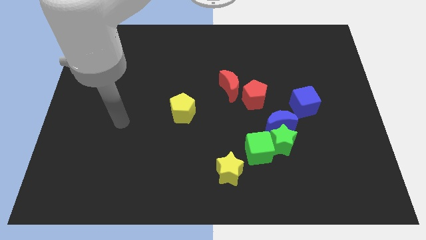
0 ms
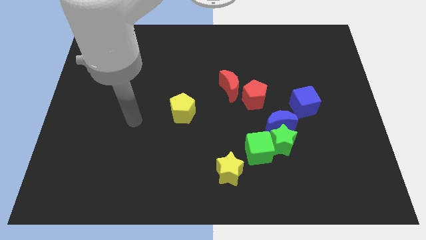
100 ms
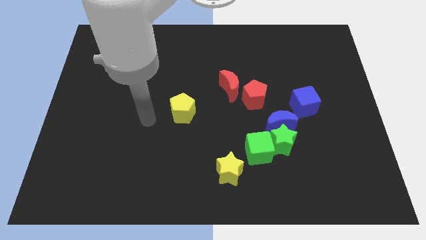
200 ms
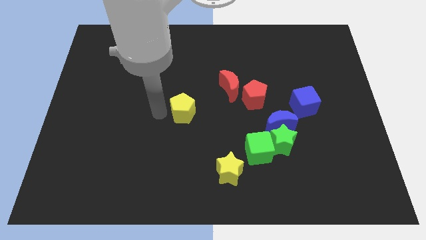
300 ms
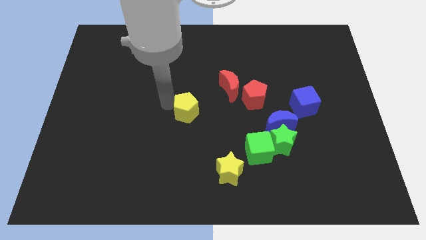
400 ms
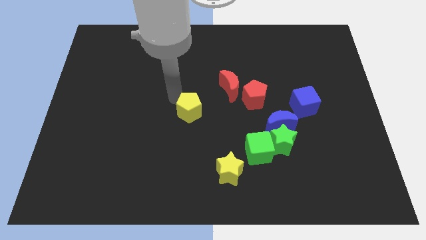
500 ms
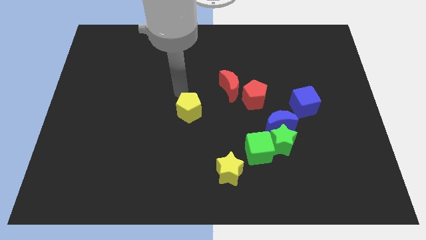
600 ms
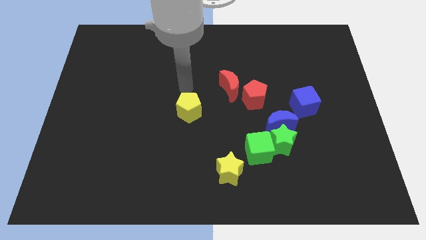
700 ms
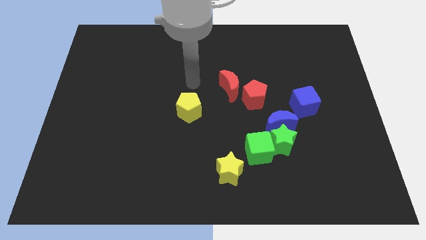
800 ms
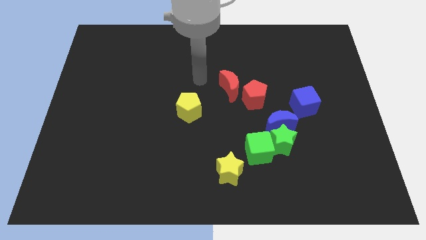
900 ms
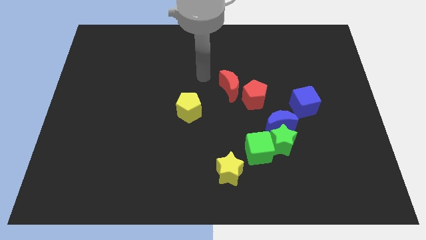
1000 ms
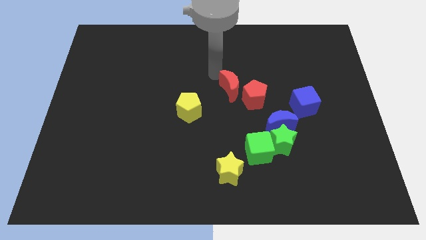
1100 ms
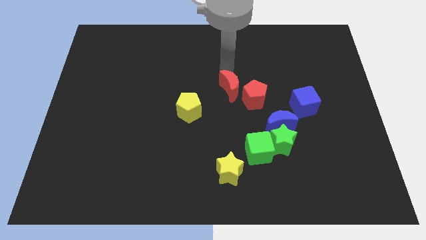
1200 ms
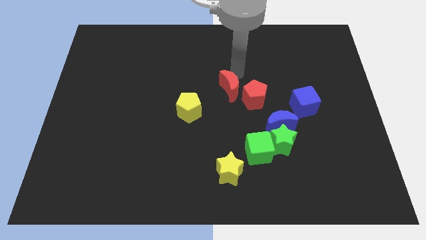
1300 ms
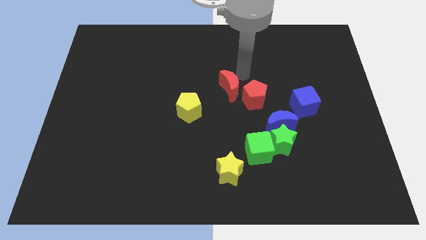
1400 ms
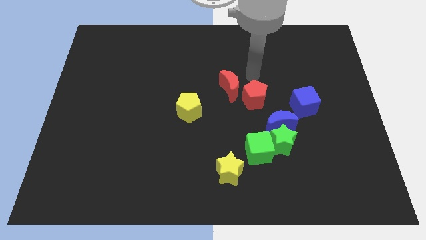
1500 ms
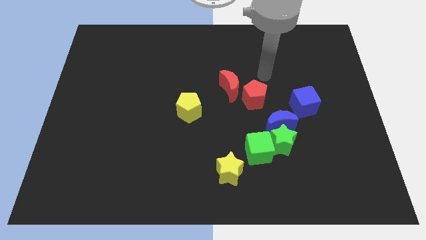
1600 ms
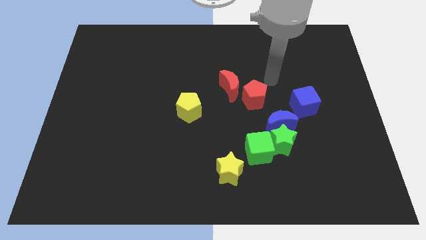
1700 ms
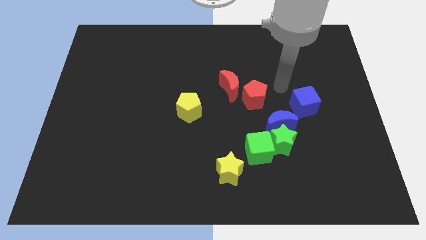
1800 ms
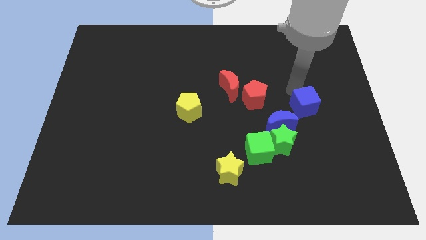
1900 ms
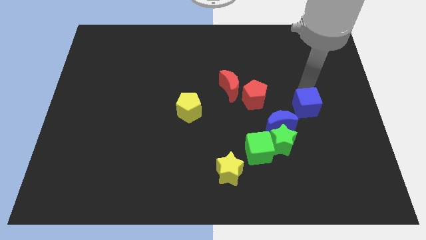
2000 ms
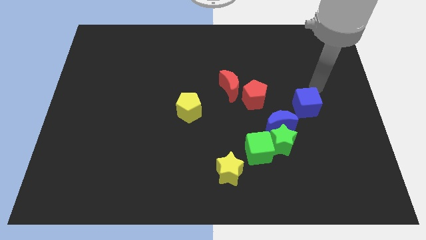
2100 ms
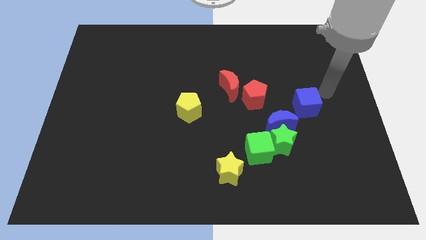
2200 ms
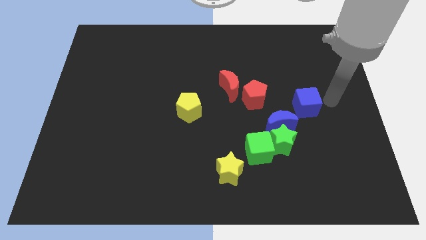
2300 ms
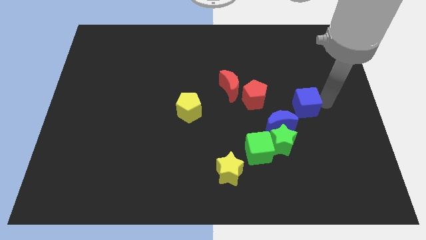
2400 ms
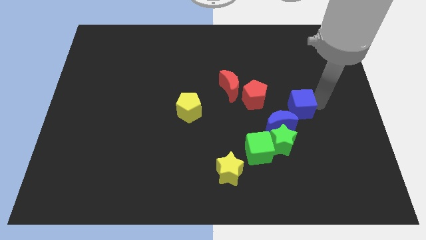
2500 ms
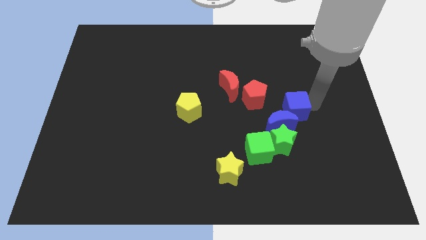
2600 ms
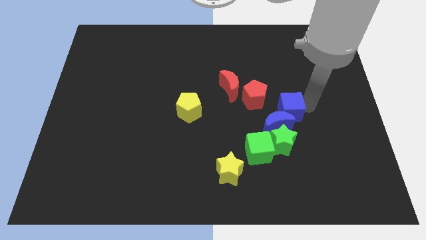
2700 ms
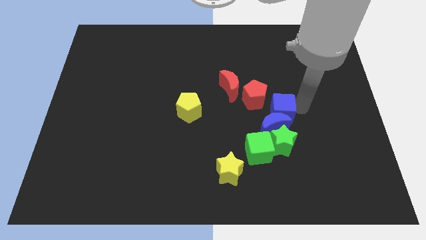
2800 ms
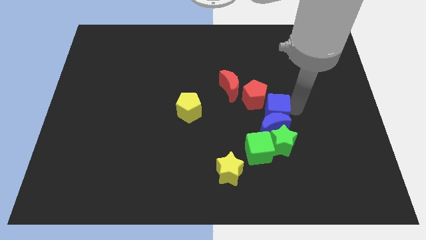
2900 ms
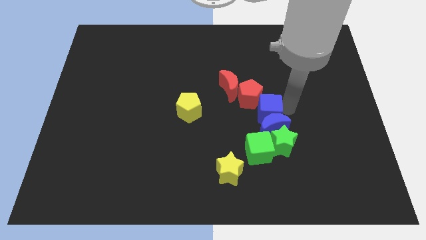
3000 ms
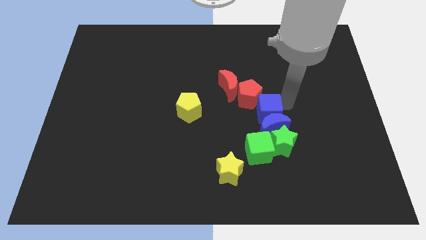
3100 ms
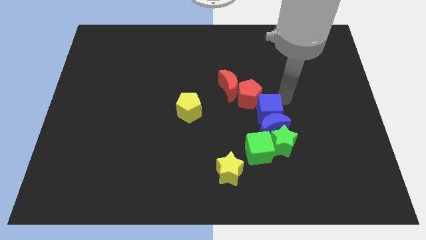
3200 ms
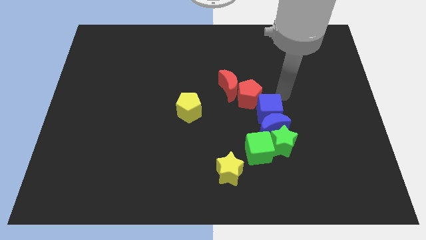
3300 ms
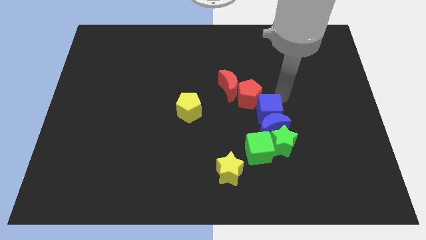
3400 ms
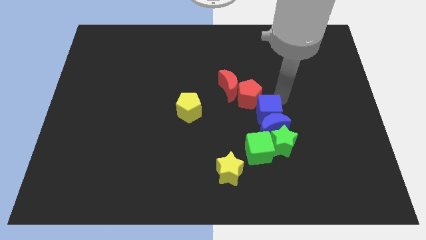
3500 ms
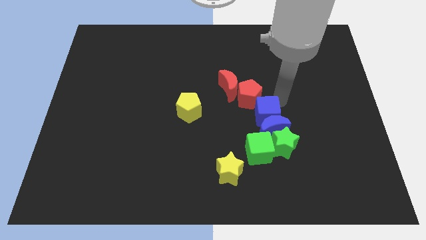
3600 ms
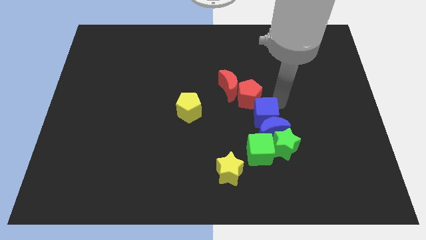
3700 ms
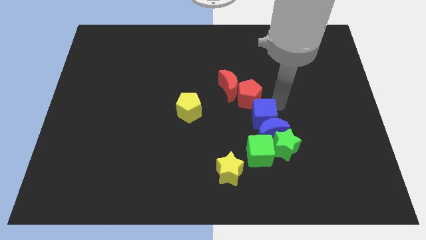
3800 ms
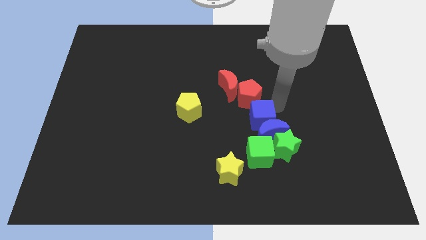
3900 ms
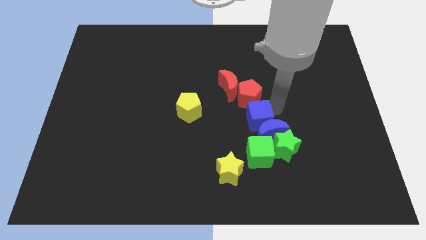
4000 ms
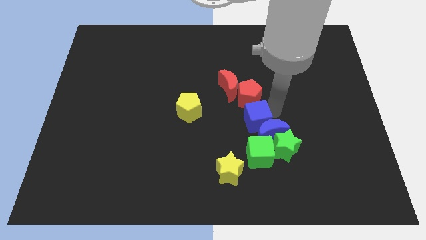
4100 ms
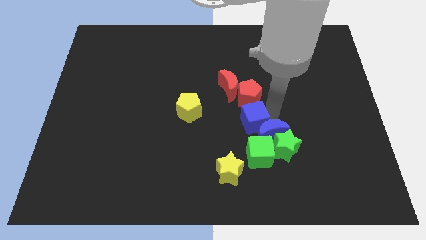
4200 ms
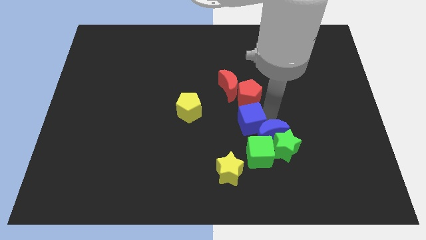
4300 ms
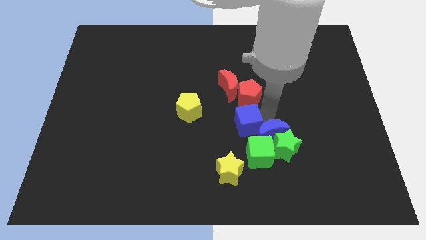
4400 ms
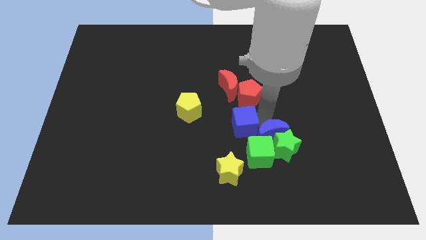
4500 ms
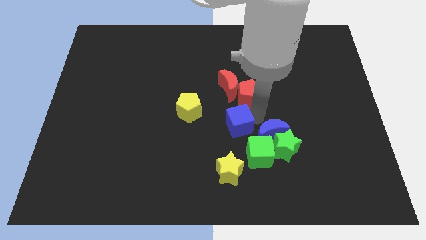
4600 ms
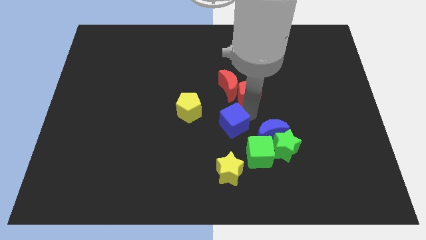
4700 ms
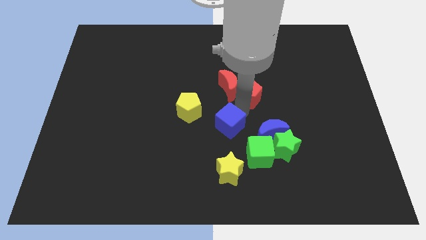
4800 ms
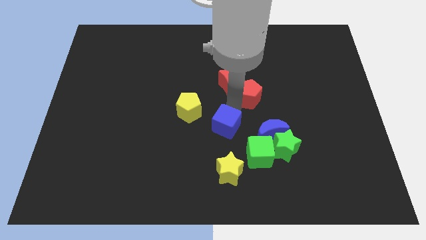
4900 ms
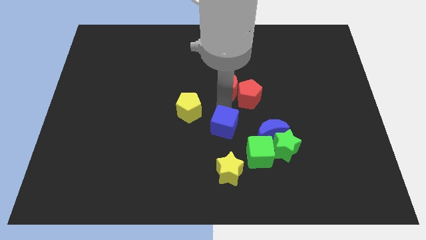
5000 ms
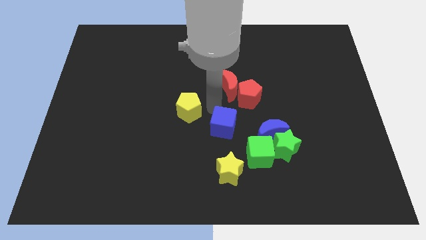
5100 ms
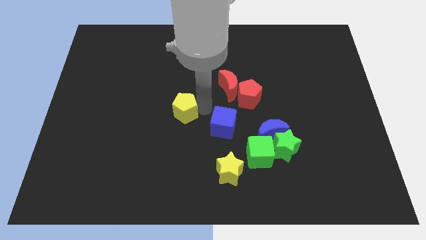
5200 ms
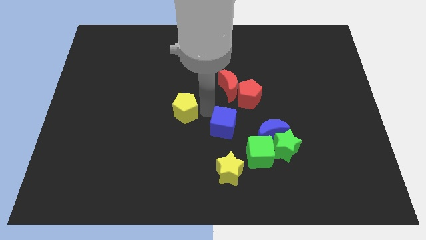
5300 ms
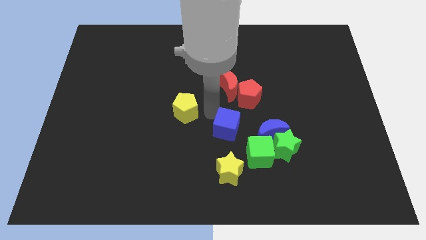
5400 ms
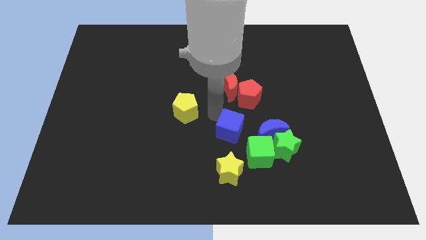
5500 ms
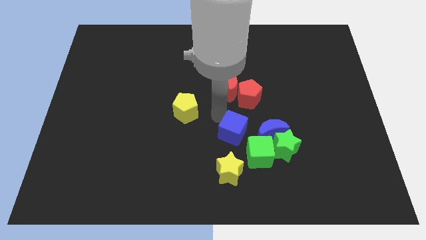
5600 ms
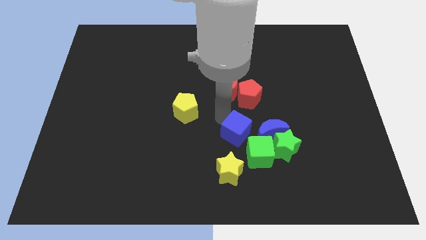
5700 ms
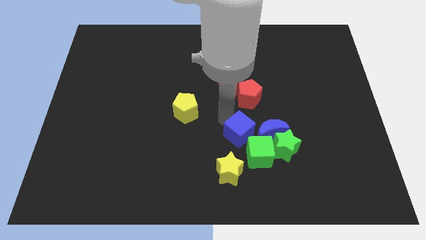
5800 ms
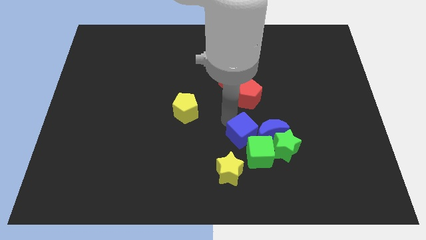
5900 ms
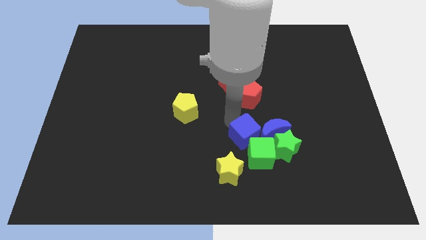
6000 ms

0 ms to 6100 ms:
put the blue cube close to the green cube

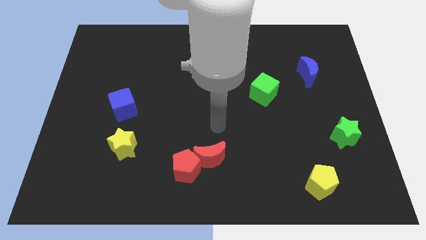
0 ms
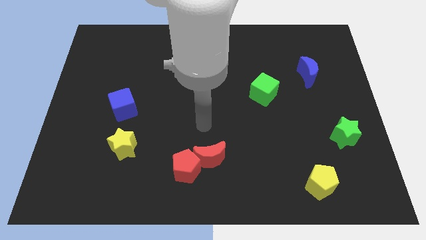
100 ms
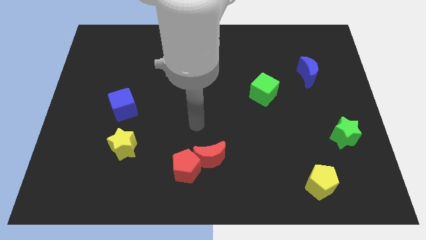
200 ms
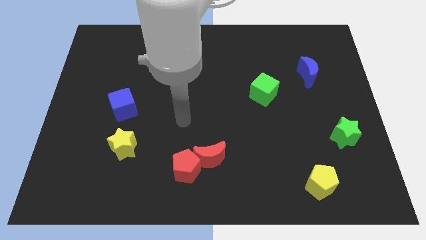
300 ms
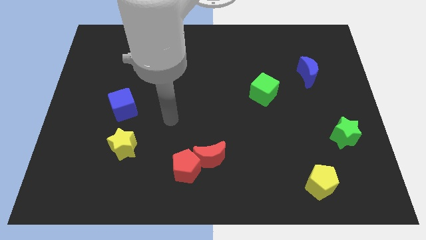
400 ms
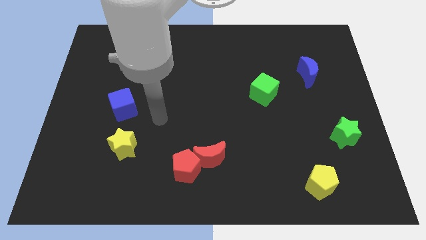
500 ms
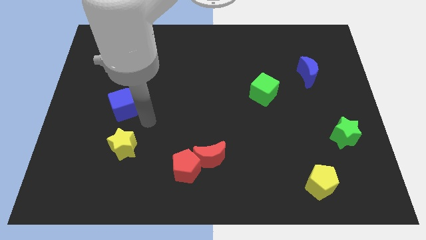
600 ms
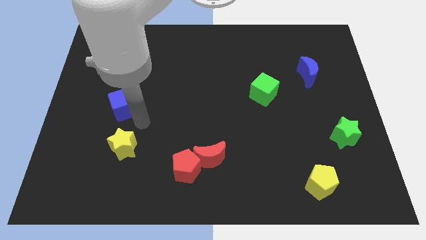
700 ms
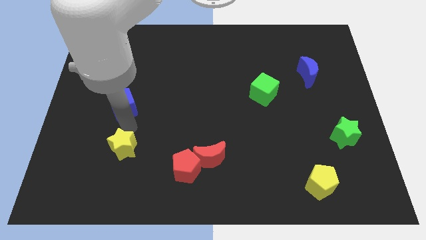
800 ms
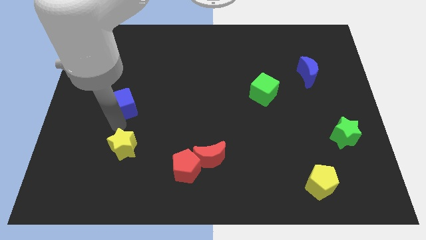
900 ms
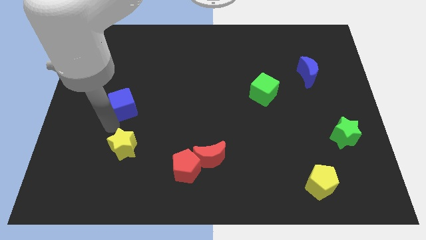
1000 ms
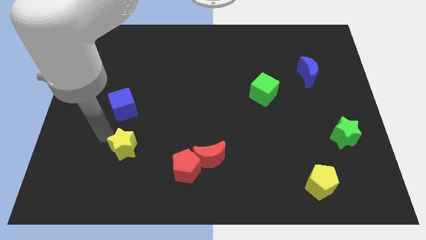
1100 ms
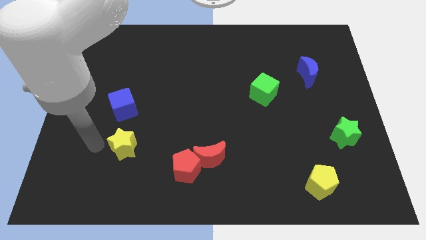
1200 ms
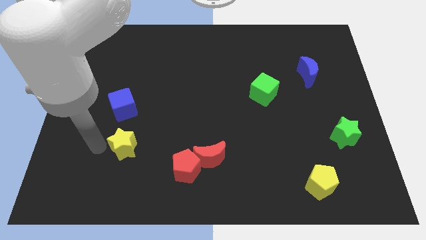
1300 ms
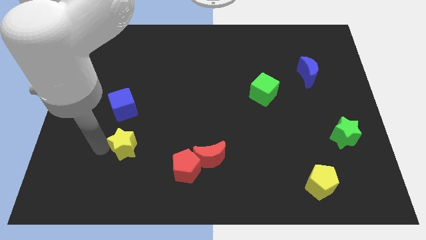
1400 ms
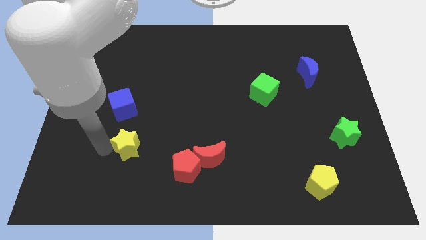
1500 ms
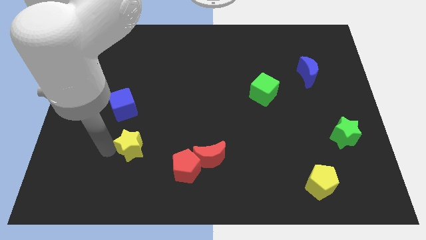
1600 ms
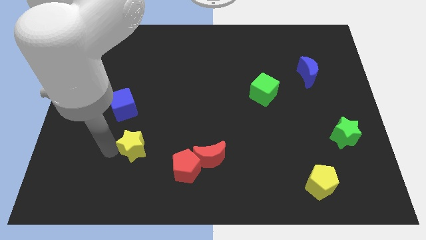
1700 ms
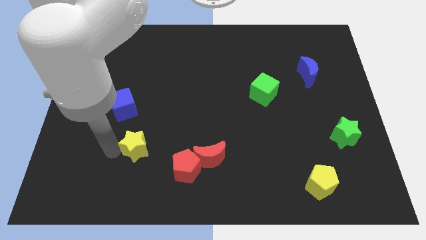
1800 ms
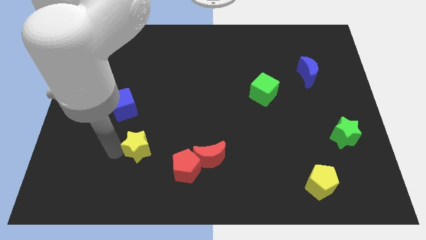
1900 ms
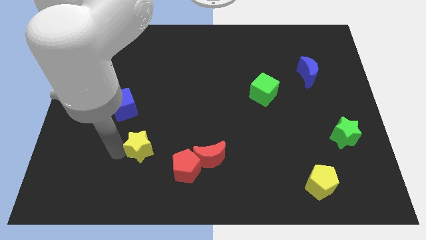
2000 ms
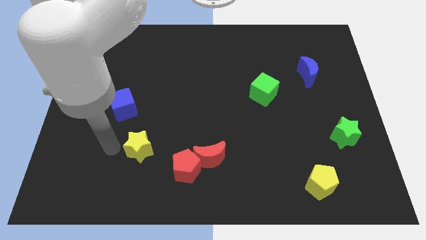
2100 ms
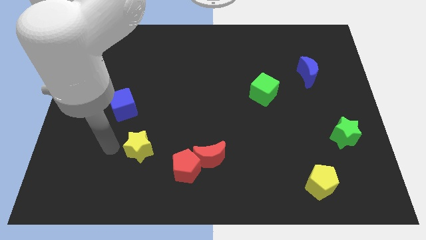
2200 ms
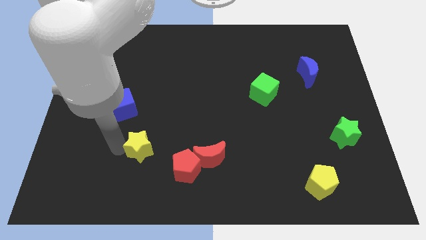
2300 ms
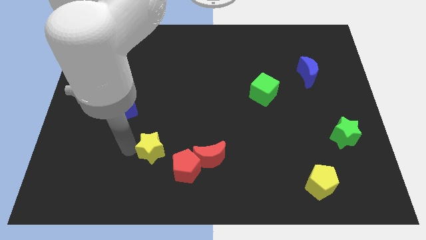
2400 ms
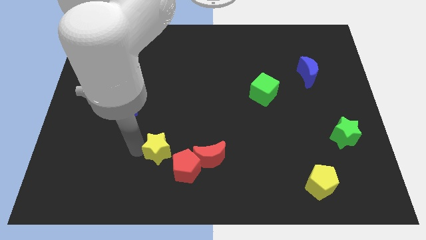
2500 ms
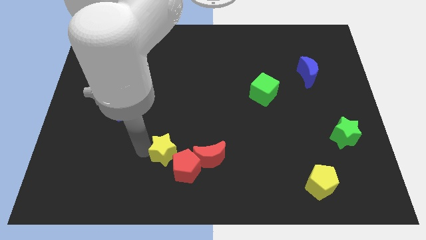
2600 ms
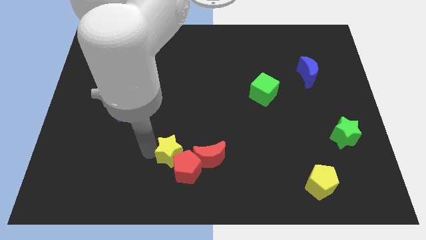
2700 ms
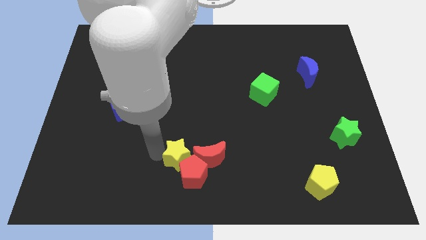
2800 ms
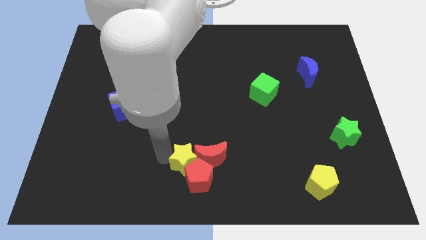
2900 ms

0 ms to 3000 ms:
slide the yellow star towards the red moon
